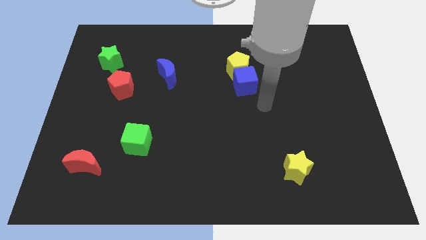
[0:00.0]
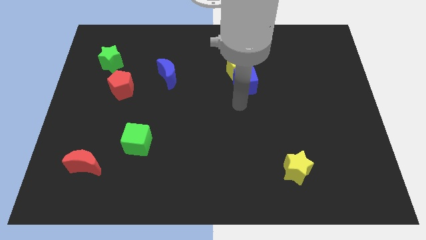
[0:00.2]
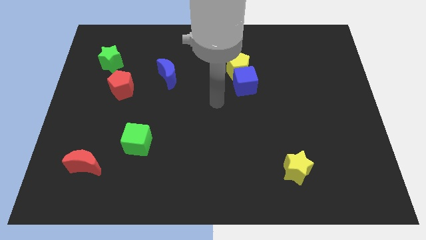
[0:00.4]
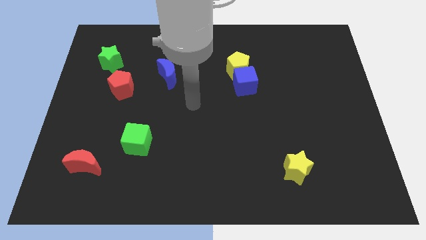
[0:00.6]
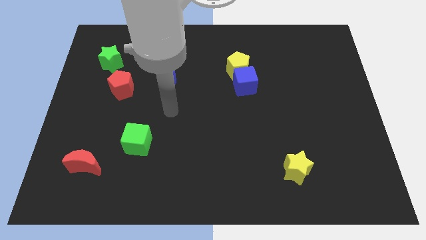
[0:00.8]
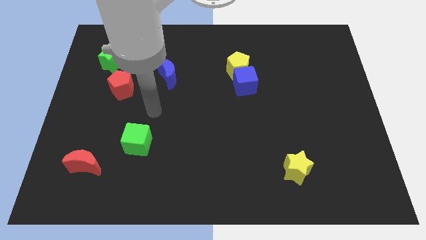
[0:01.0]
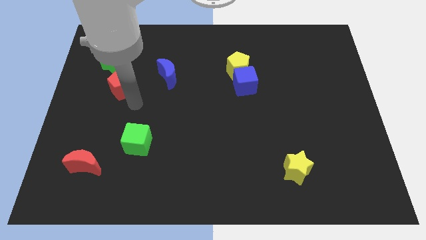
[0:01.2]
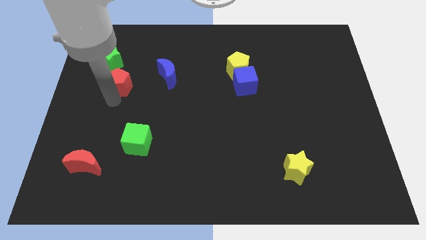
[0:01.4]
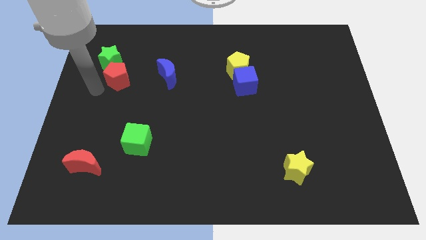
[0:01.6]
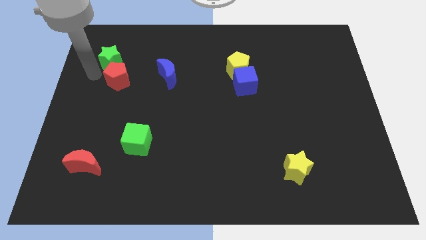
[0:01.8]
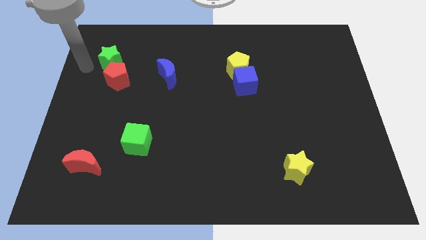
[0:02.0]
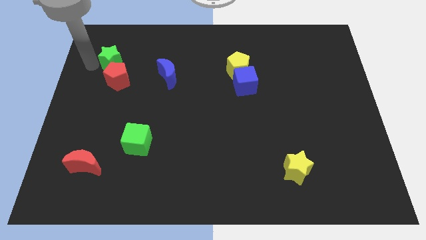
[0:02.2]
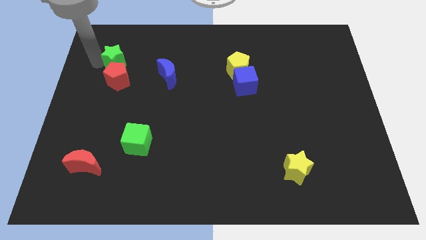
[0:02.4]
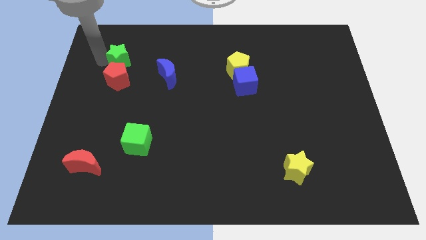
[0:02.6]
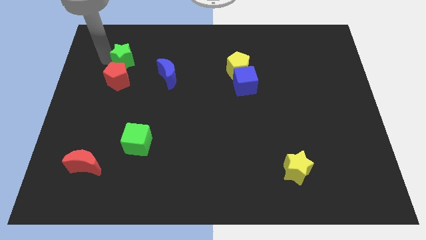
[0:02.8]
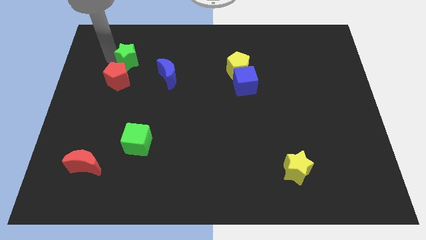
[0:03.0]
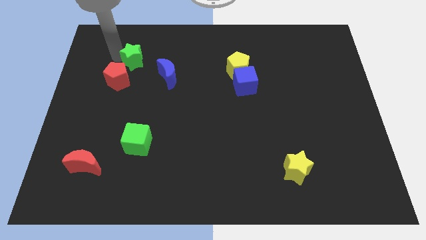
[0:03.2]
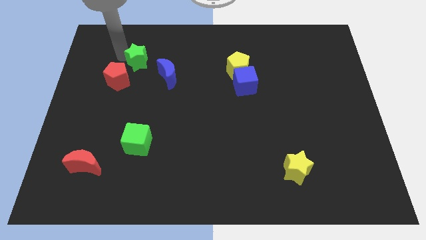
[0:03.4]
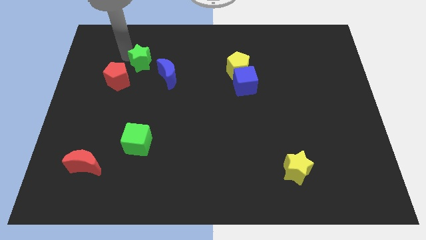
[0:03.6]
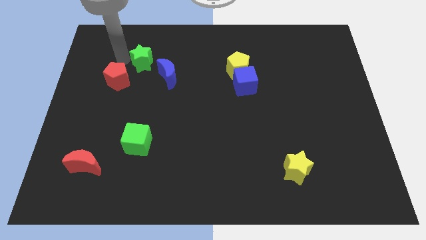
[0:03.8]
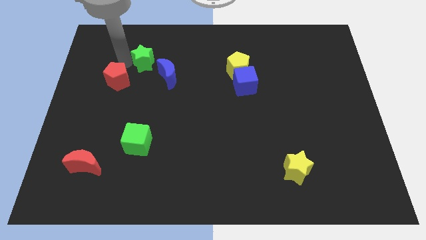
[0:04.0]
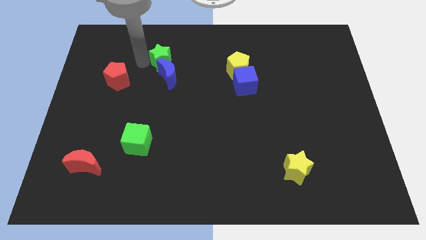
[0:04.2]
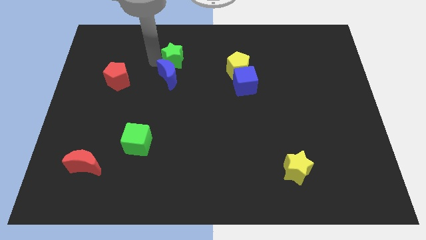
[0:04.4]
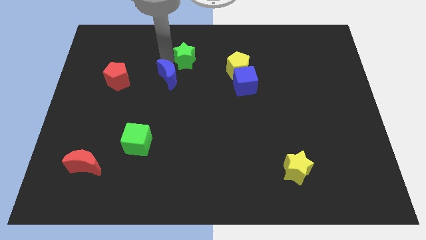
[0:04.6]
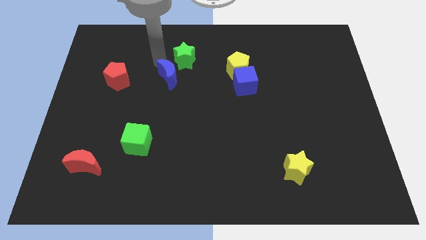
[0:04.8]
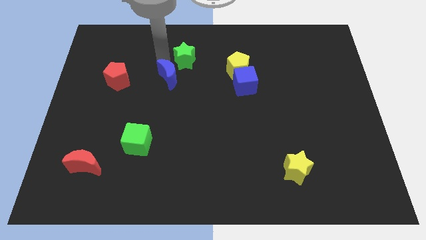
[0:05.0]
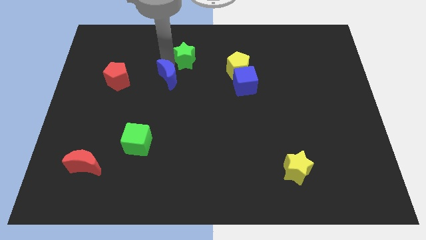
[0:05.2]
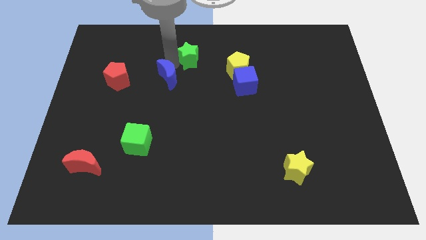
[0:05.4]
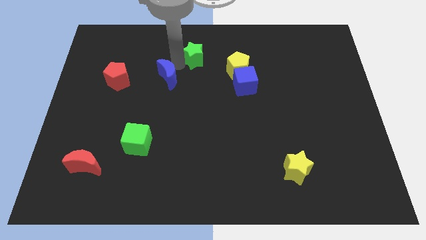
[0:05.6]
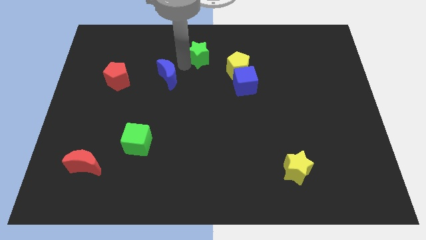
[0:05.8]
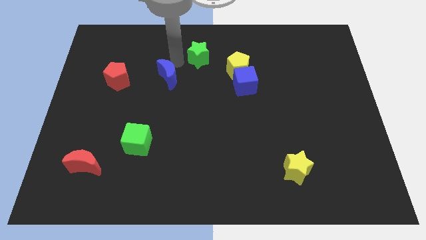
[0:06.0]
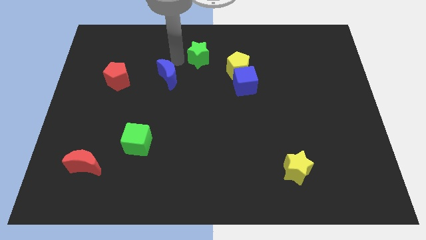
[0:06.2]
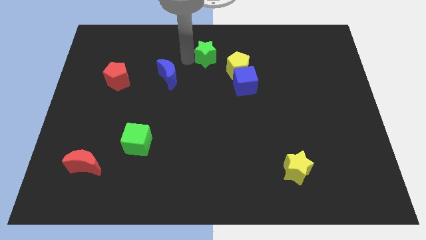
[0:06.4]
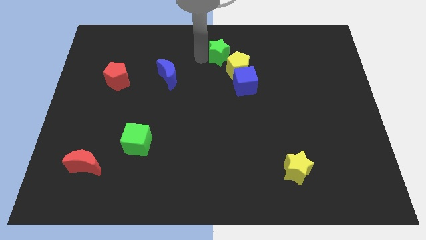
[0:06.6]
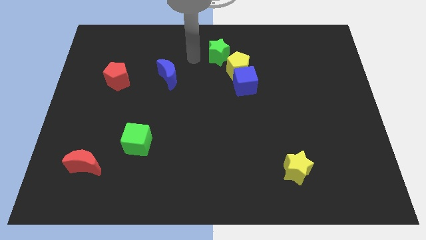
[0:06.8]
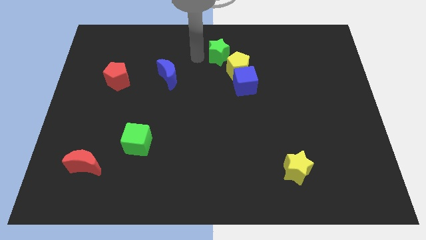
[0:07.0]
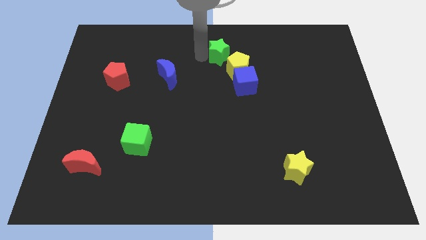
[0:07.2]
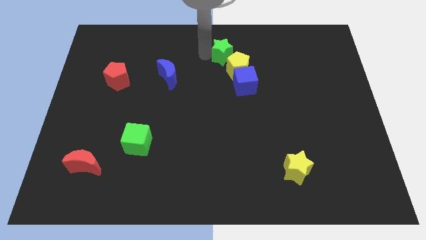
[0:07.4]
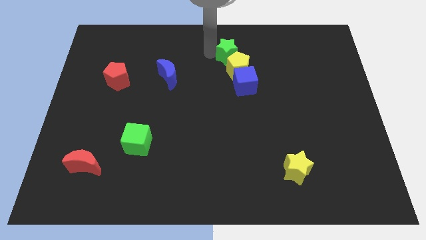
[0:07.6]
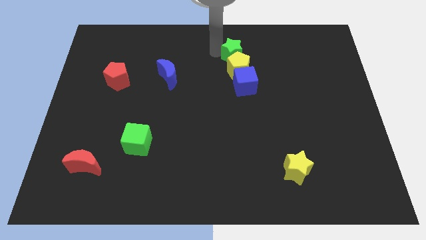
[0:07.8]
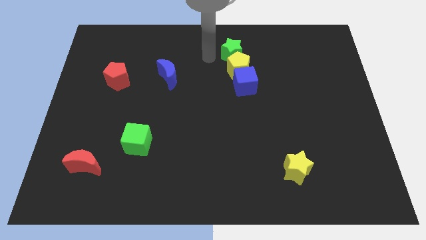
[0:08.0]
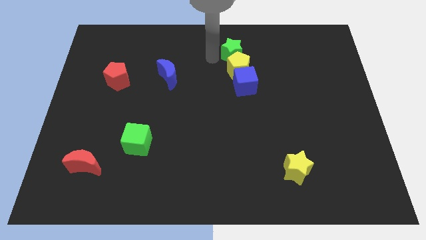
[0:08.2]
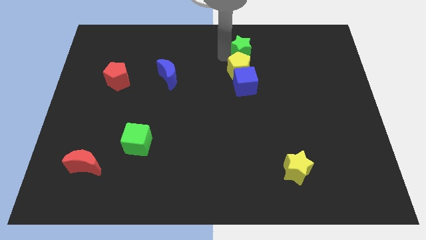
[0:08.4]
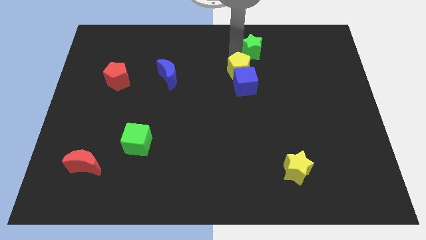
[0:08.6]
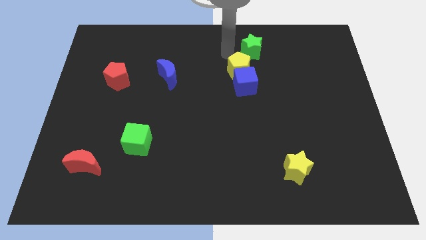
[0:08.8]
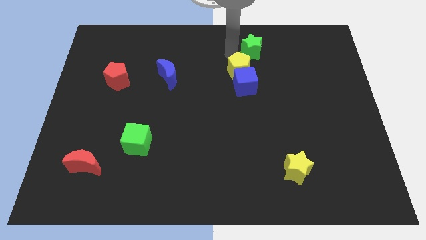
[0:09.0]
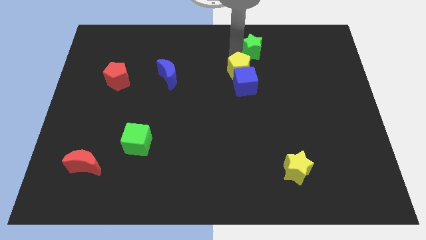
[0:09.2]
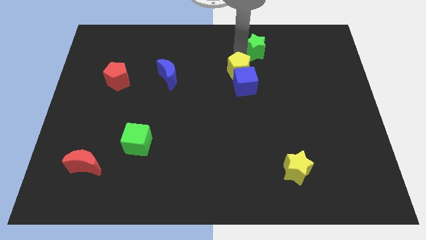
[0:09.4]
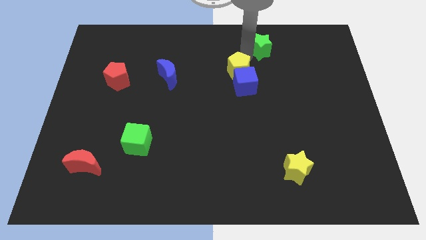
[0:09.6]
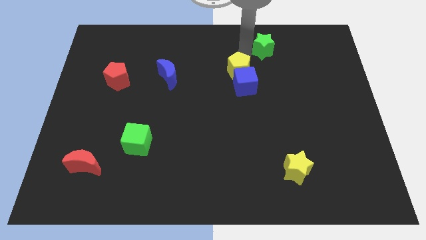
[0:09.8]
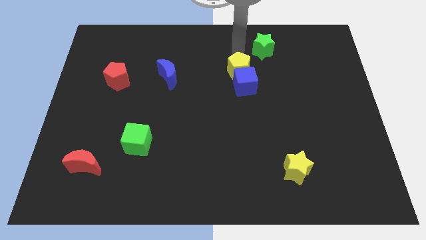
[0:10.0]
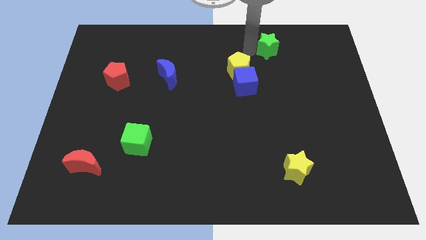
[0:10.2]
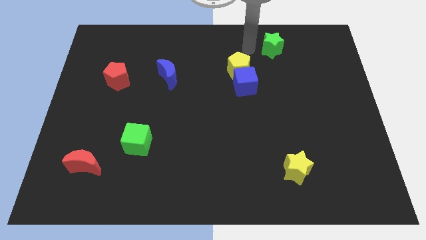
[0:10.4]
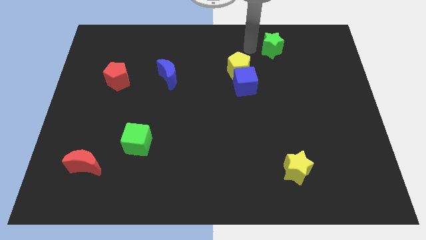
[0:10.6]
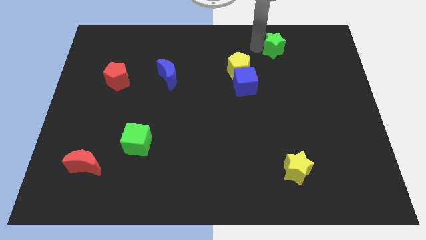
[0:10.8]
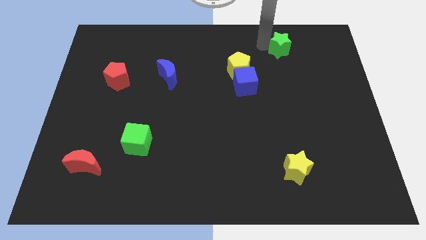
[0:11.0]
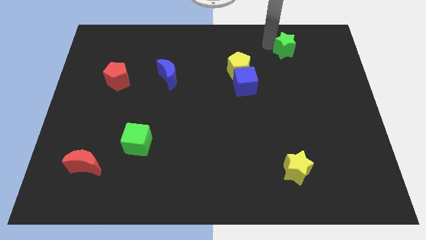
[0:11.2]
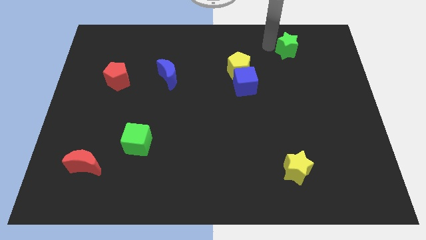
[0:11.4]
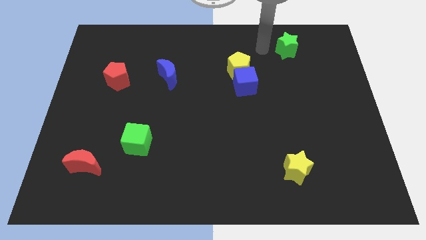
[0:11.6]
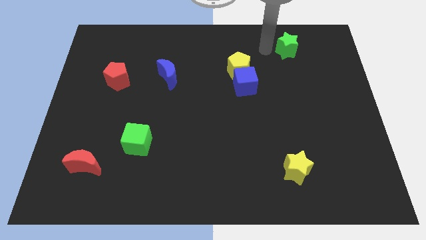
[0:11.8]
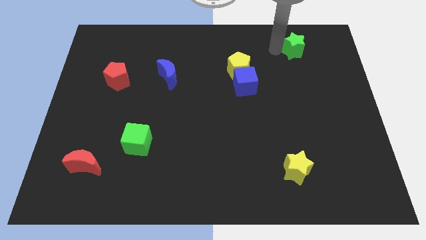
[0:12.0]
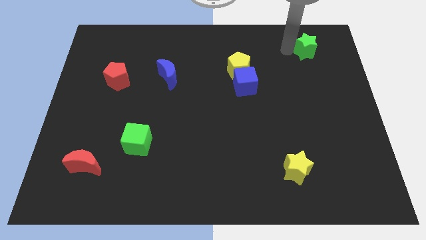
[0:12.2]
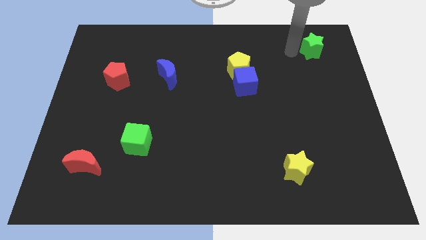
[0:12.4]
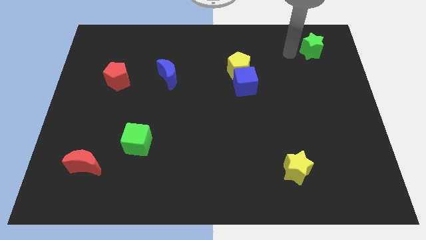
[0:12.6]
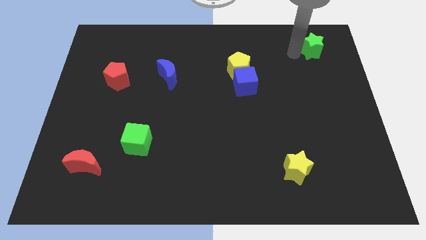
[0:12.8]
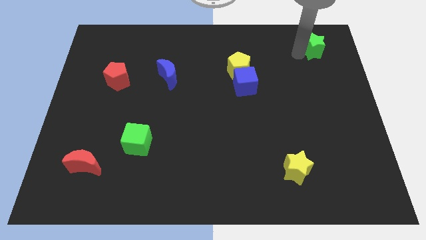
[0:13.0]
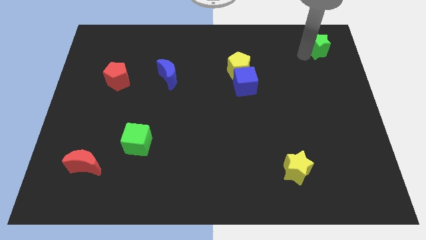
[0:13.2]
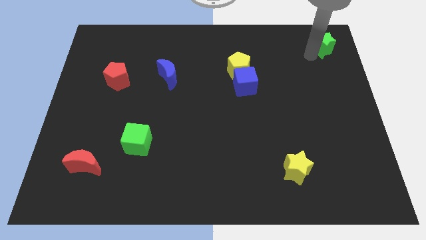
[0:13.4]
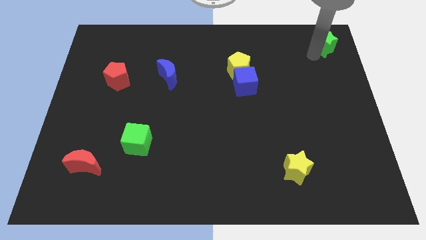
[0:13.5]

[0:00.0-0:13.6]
slide the green star to the top right corner

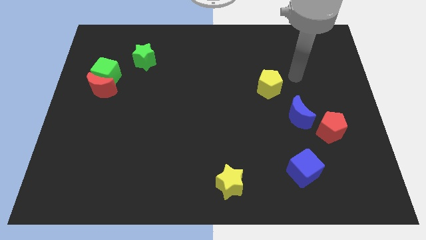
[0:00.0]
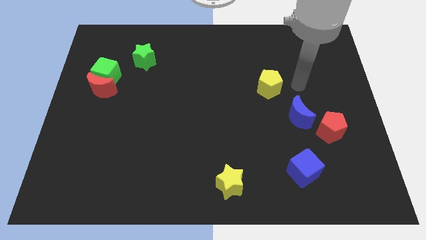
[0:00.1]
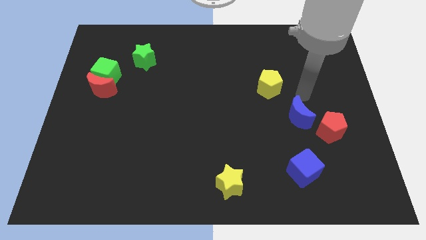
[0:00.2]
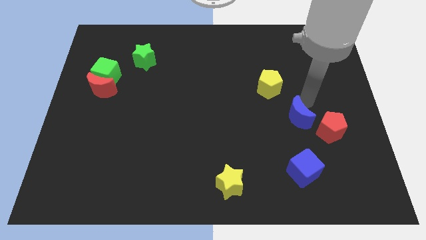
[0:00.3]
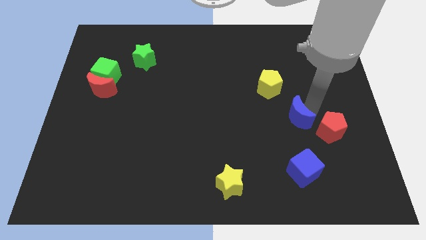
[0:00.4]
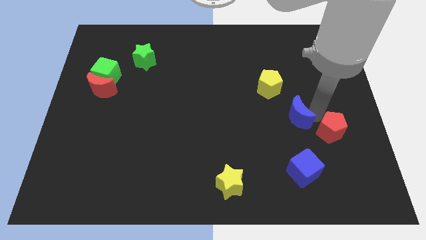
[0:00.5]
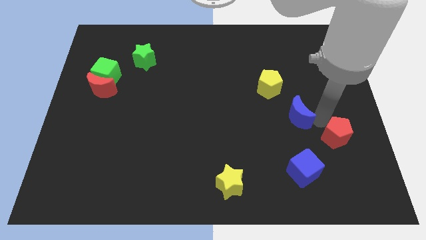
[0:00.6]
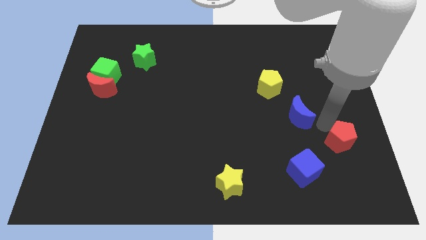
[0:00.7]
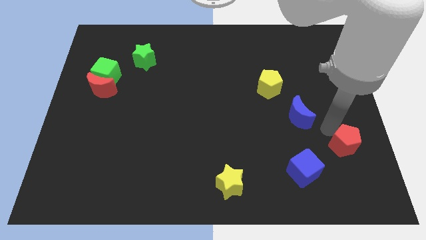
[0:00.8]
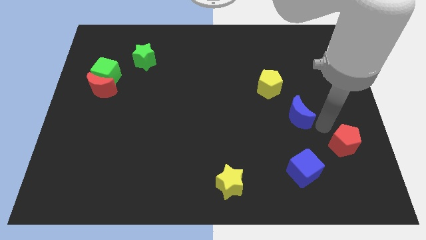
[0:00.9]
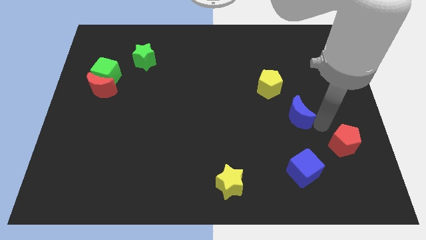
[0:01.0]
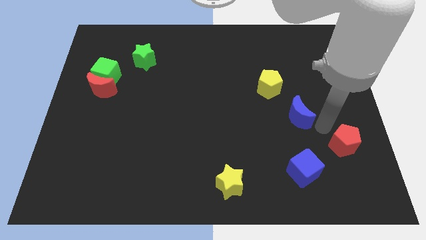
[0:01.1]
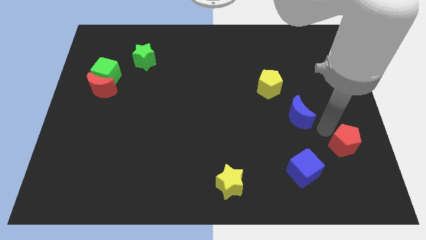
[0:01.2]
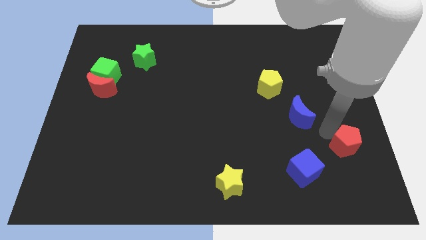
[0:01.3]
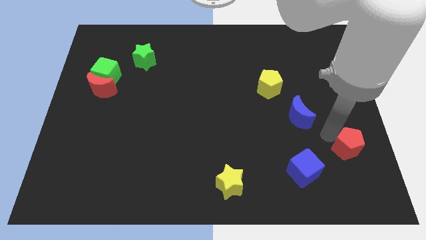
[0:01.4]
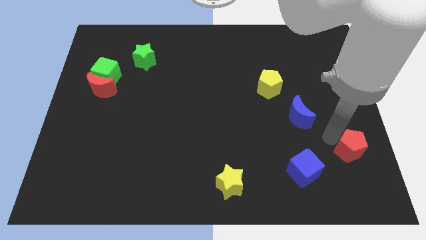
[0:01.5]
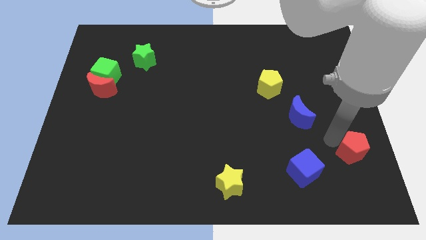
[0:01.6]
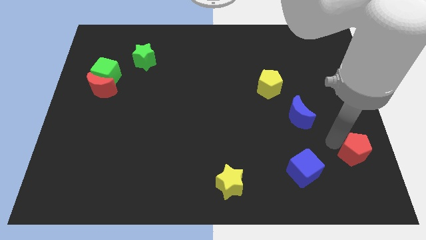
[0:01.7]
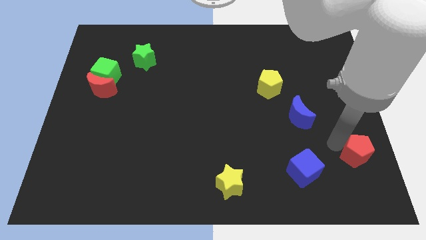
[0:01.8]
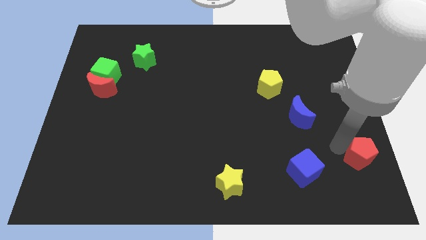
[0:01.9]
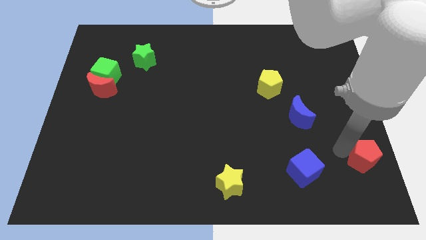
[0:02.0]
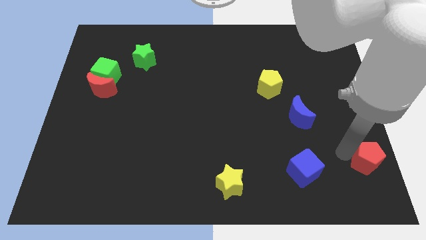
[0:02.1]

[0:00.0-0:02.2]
push the red pentagon to the bottom right corner
